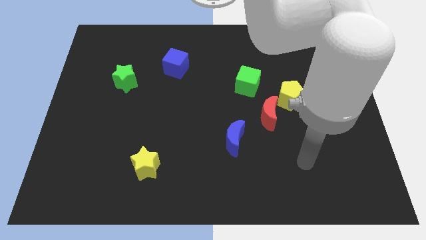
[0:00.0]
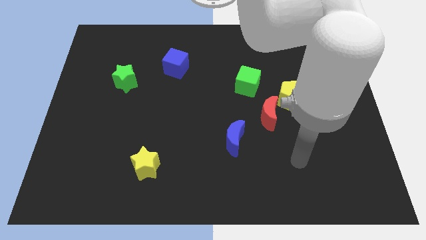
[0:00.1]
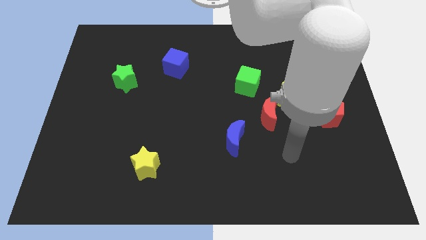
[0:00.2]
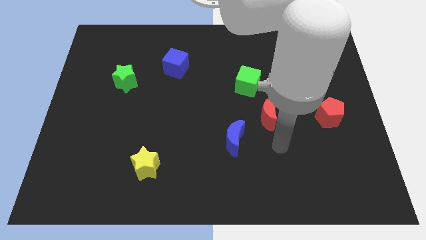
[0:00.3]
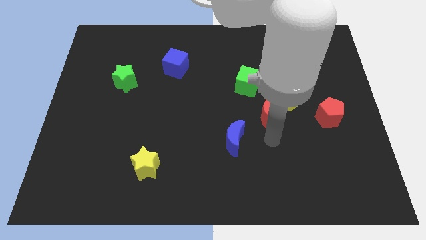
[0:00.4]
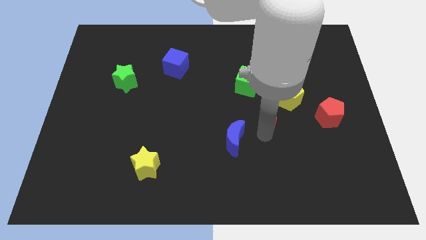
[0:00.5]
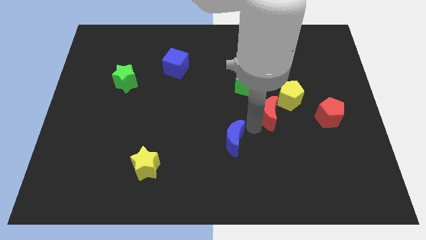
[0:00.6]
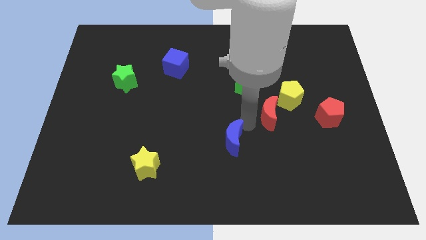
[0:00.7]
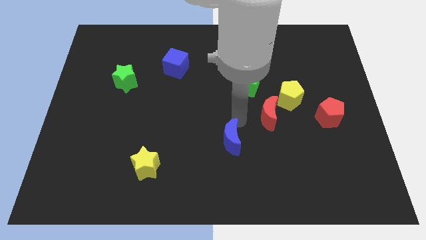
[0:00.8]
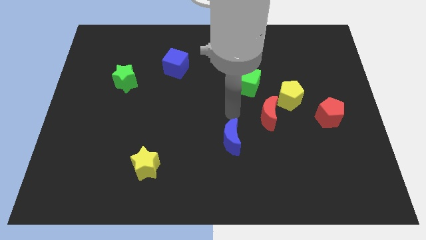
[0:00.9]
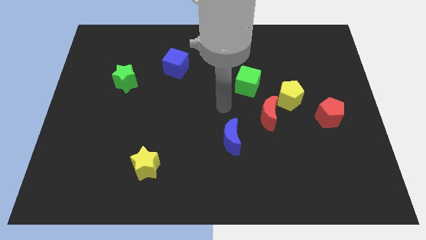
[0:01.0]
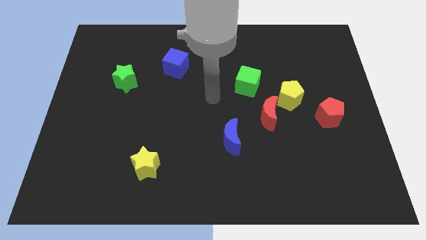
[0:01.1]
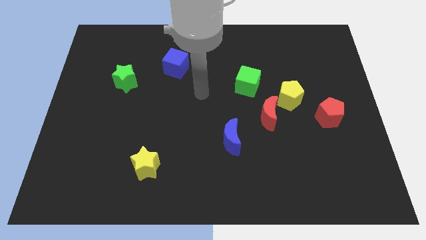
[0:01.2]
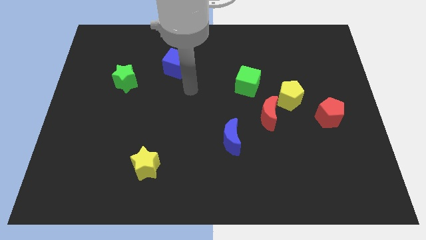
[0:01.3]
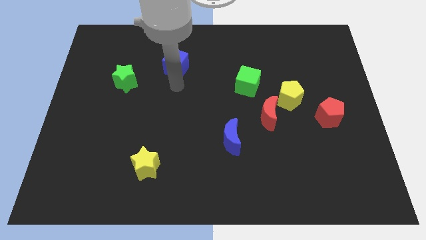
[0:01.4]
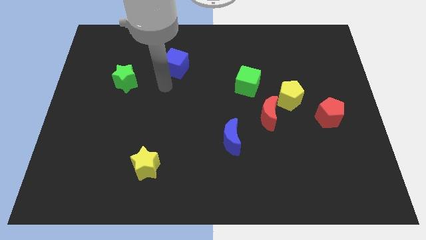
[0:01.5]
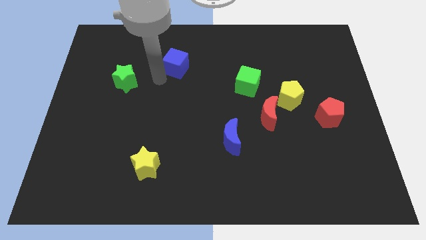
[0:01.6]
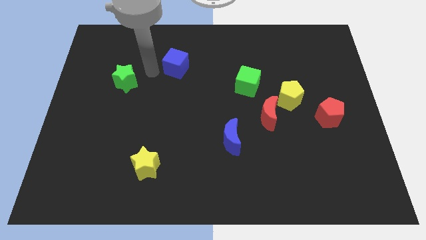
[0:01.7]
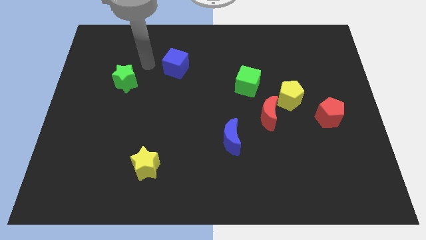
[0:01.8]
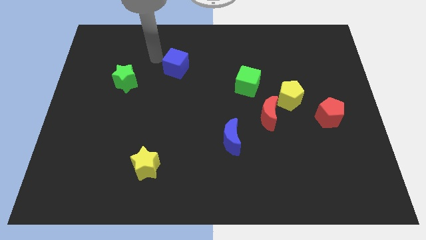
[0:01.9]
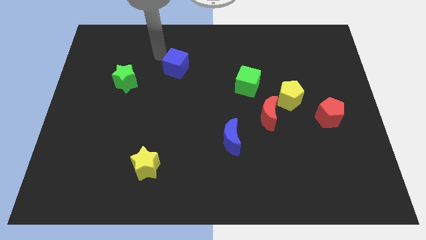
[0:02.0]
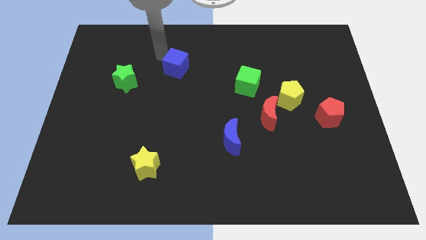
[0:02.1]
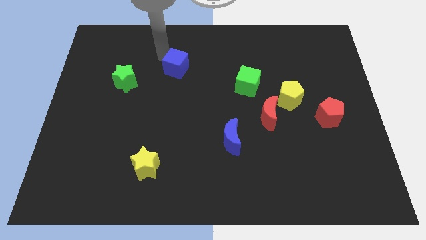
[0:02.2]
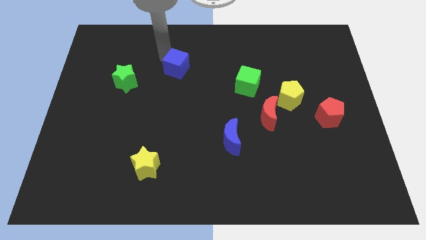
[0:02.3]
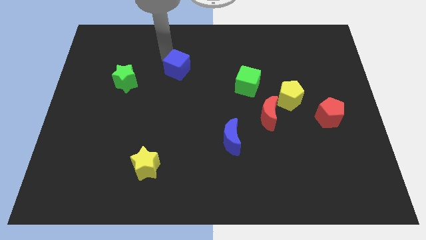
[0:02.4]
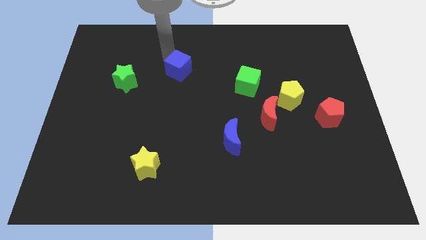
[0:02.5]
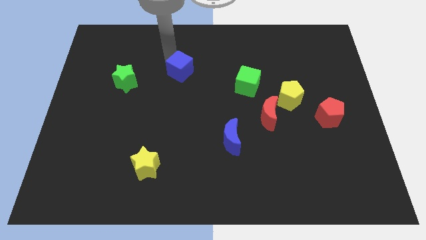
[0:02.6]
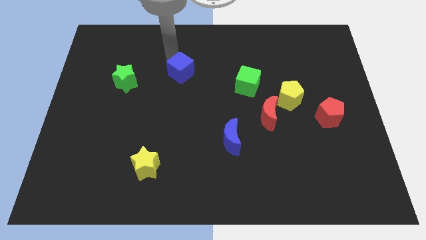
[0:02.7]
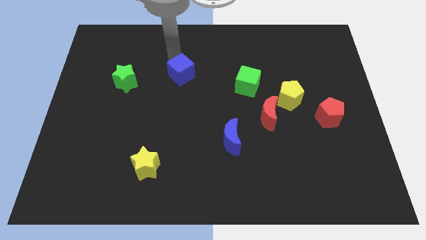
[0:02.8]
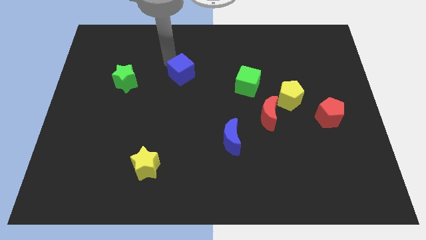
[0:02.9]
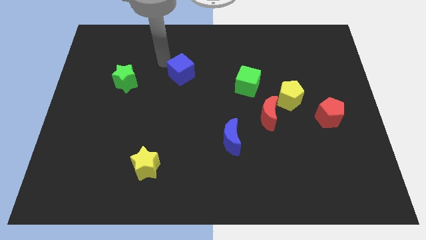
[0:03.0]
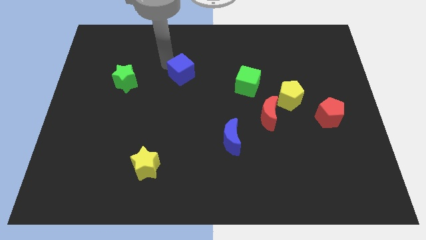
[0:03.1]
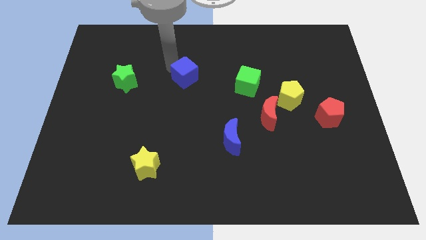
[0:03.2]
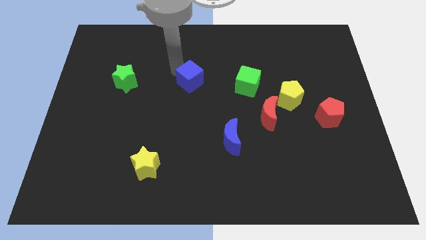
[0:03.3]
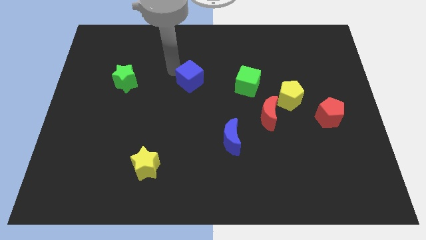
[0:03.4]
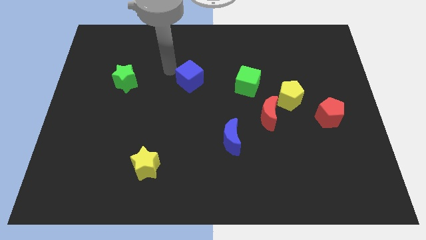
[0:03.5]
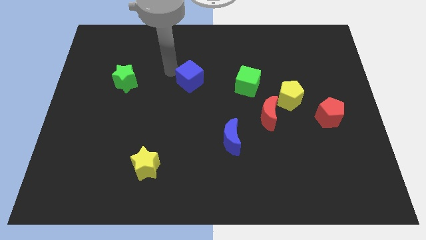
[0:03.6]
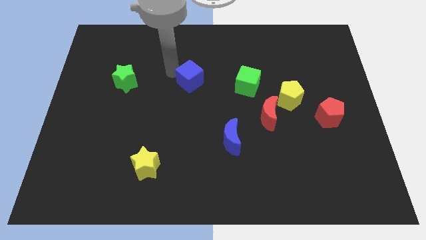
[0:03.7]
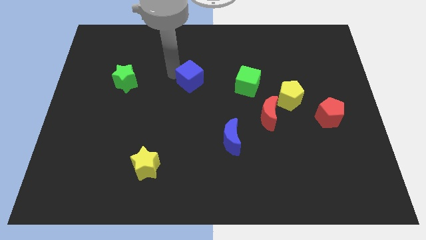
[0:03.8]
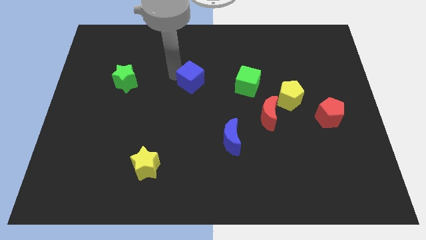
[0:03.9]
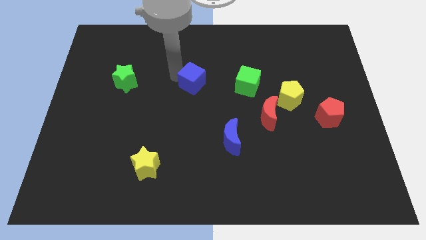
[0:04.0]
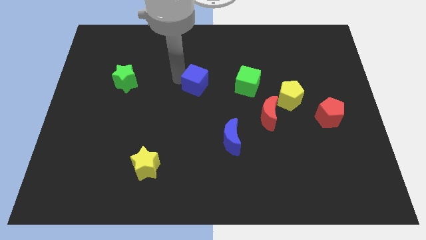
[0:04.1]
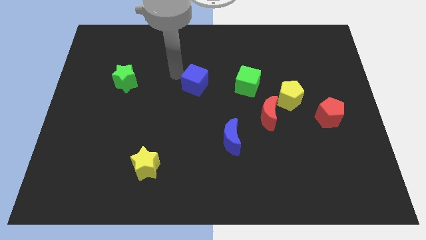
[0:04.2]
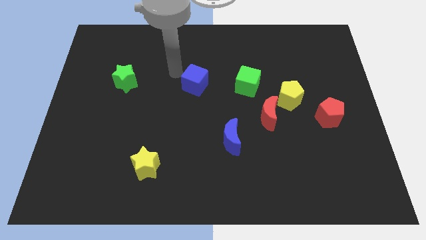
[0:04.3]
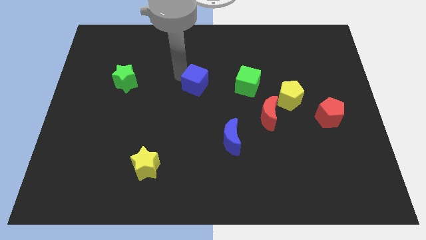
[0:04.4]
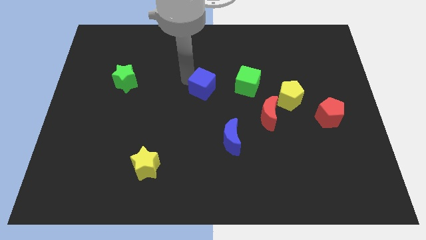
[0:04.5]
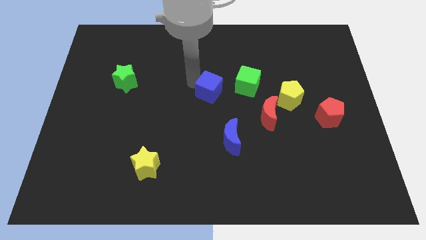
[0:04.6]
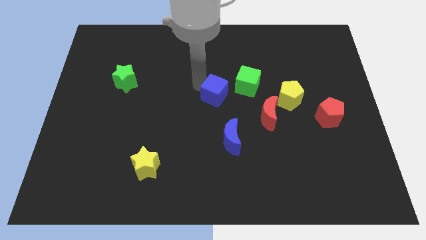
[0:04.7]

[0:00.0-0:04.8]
put the blue cube diagonally down and to the left of the green cube

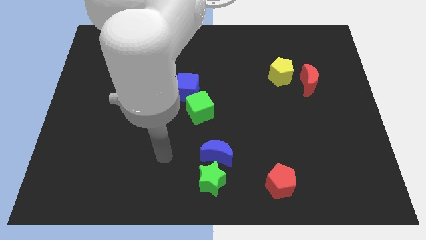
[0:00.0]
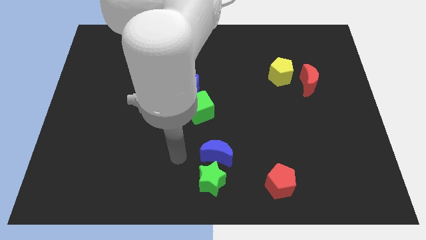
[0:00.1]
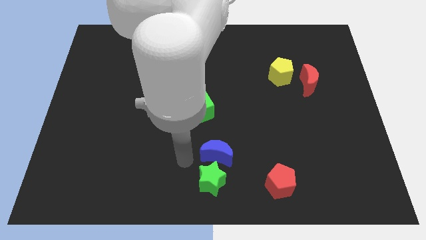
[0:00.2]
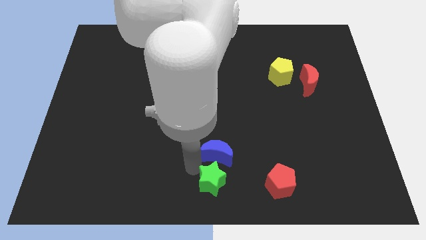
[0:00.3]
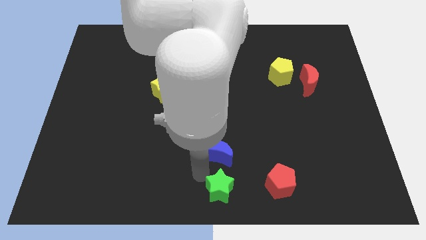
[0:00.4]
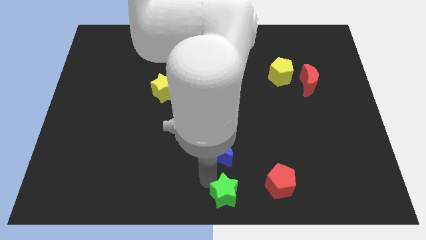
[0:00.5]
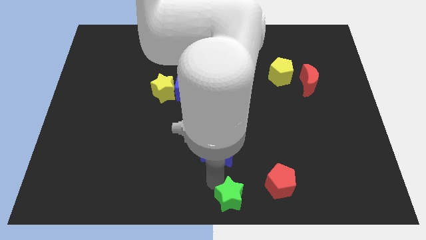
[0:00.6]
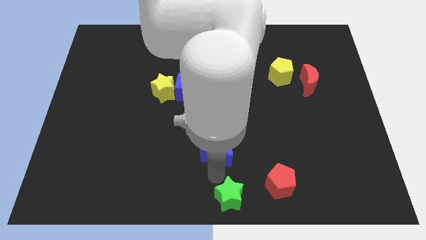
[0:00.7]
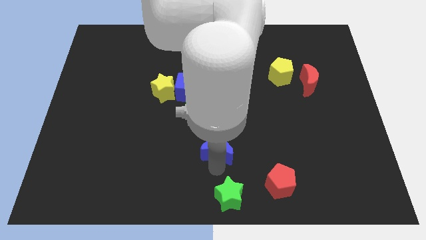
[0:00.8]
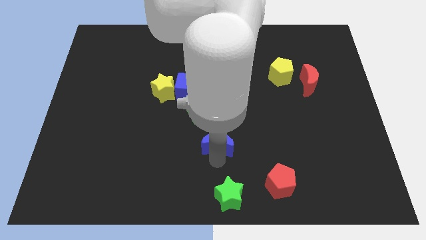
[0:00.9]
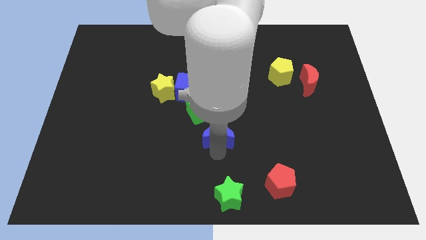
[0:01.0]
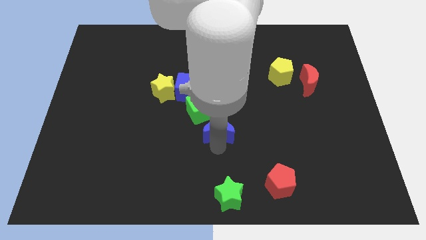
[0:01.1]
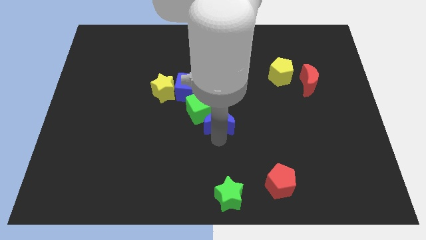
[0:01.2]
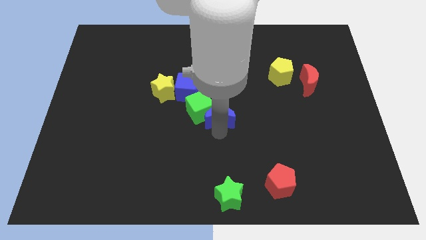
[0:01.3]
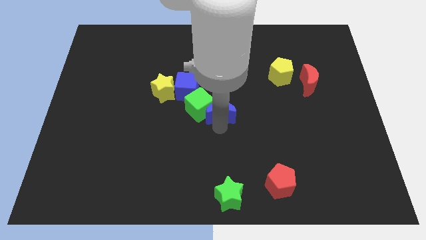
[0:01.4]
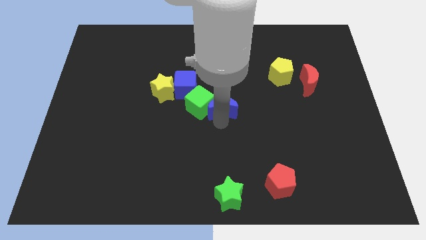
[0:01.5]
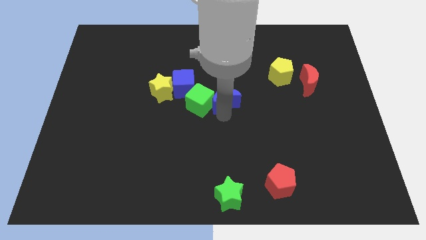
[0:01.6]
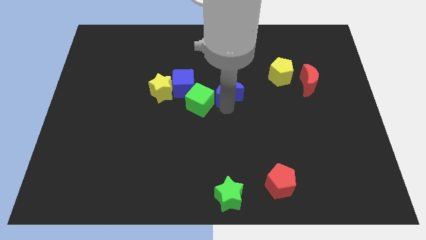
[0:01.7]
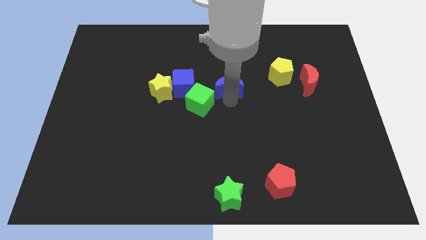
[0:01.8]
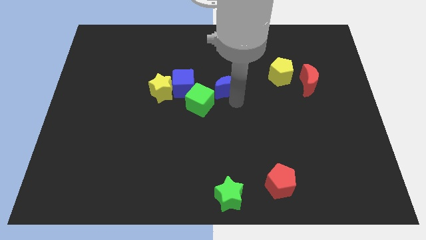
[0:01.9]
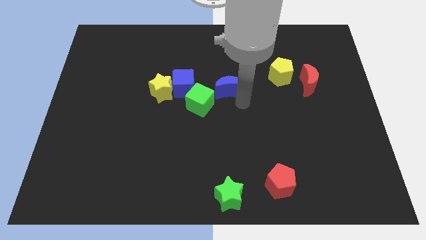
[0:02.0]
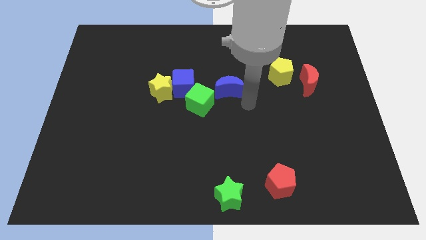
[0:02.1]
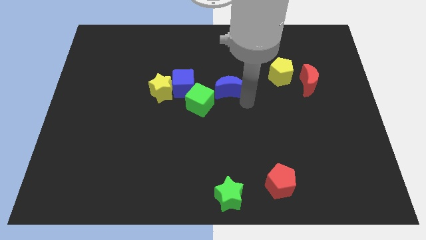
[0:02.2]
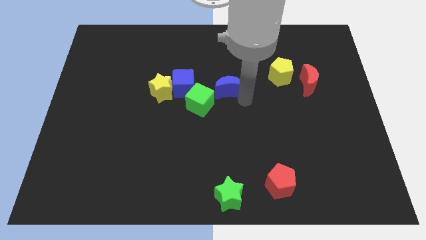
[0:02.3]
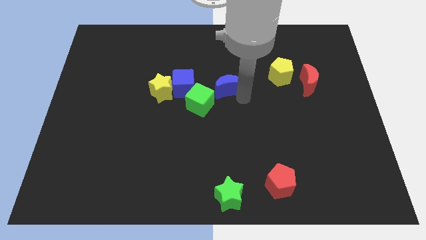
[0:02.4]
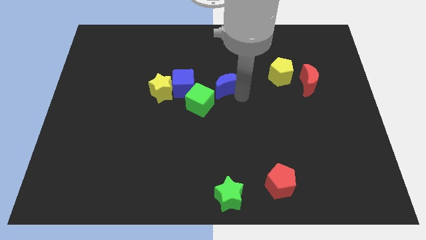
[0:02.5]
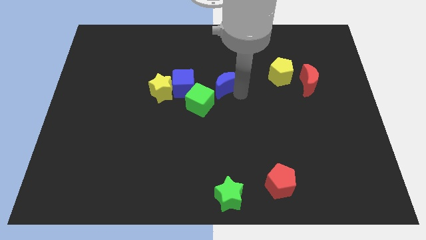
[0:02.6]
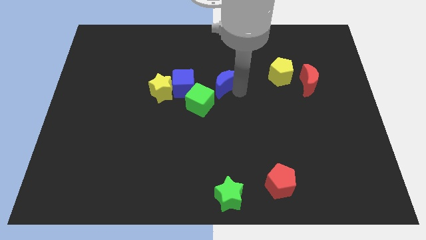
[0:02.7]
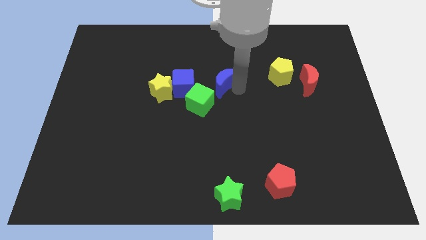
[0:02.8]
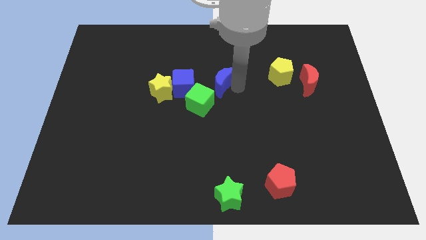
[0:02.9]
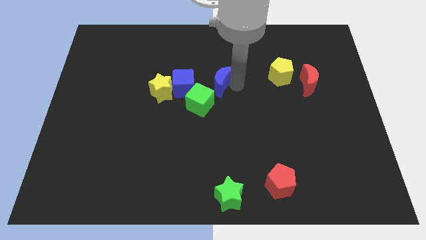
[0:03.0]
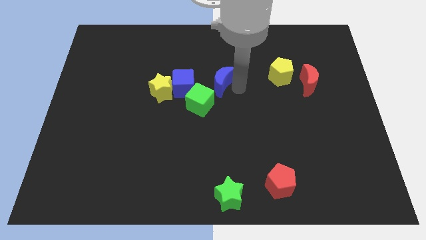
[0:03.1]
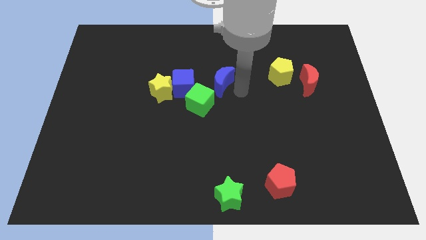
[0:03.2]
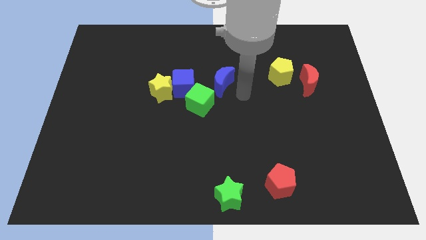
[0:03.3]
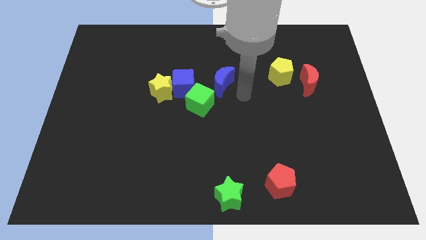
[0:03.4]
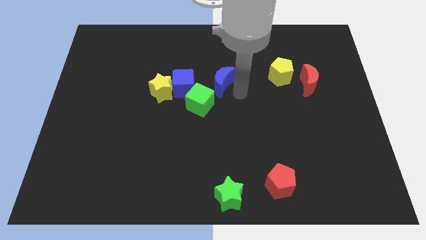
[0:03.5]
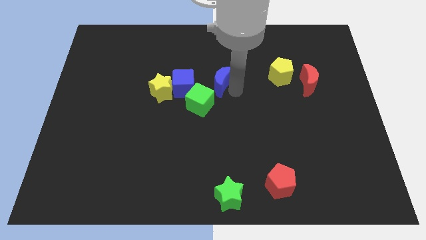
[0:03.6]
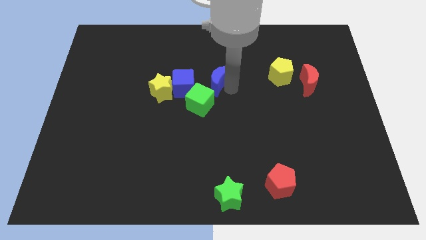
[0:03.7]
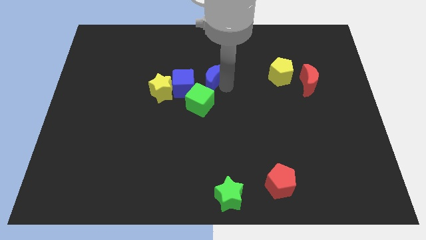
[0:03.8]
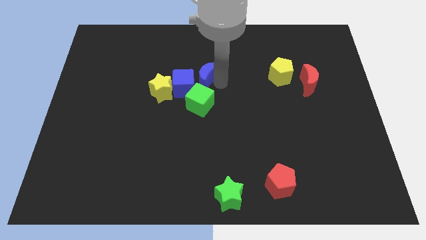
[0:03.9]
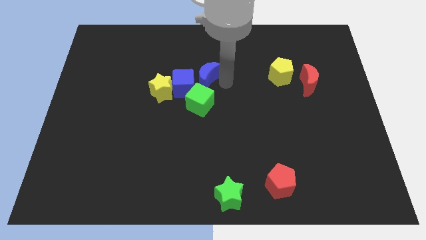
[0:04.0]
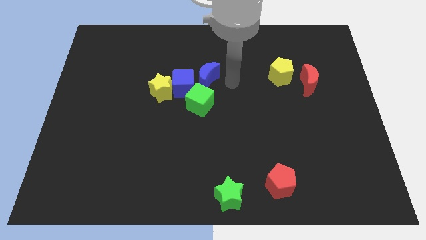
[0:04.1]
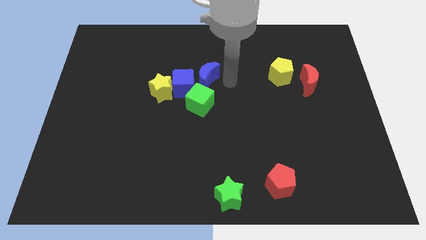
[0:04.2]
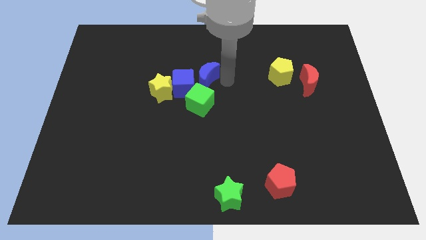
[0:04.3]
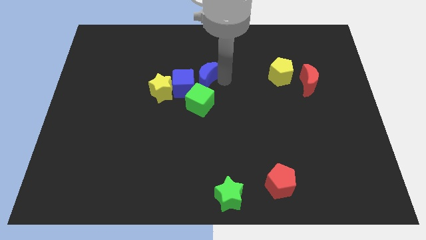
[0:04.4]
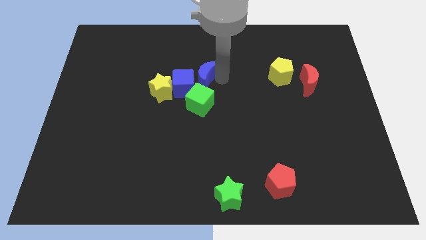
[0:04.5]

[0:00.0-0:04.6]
put the blue moon to the top right side of the yellow star
